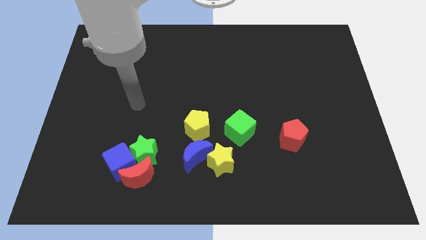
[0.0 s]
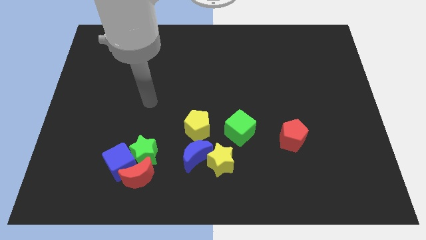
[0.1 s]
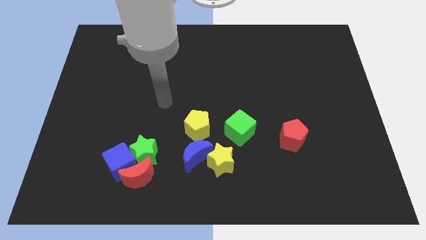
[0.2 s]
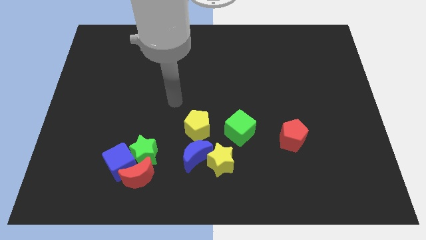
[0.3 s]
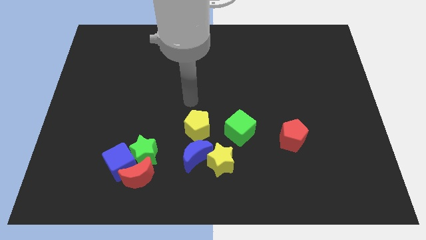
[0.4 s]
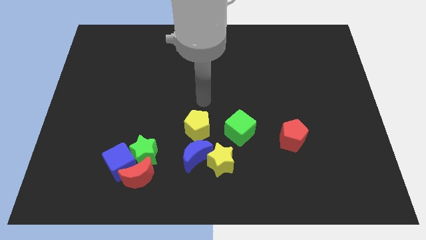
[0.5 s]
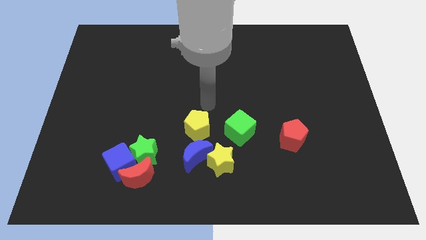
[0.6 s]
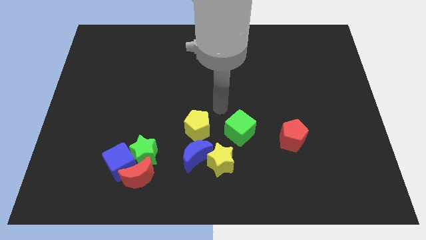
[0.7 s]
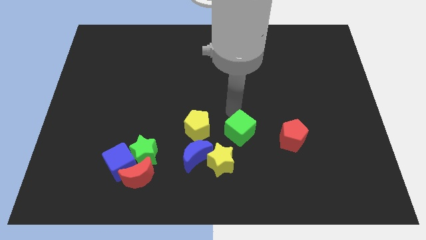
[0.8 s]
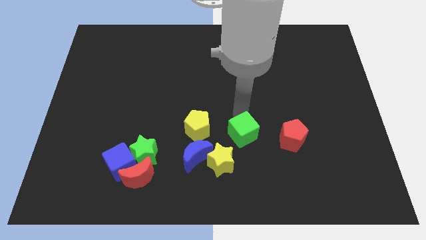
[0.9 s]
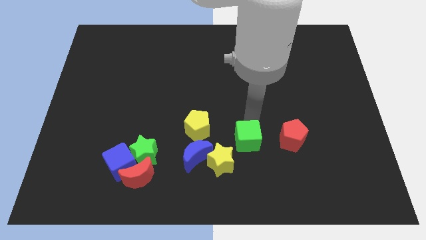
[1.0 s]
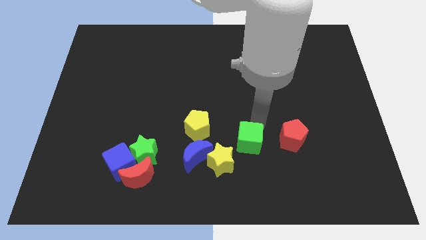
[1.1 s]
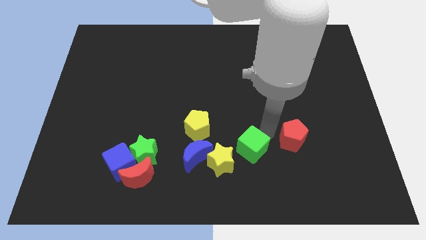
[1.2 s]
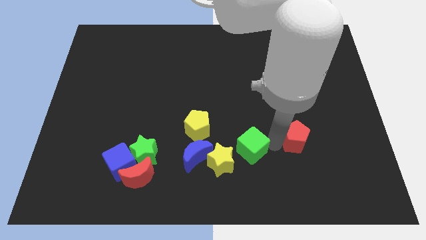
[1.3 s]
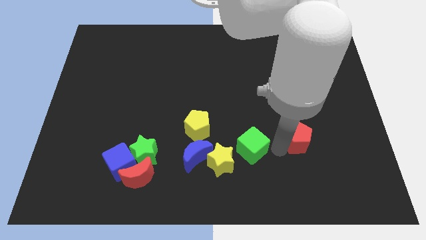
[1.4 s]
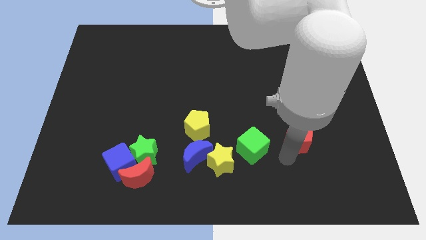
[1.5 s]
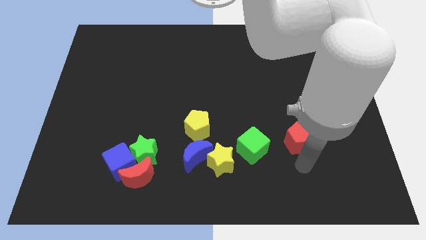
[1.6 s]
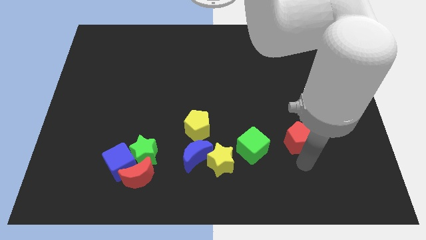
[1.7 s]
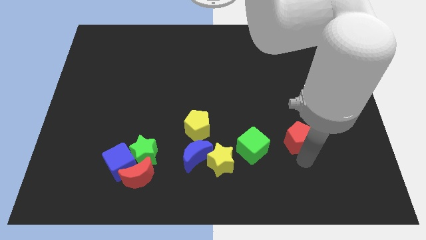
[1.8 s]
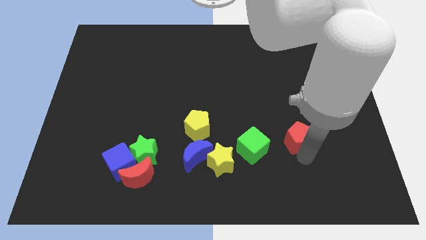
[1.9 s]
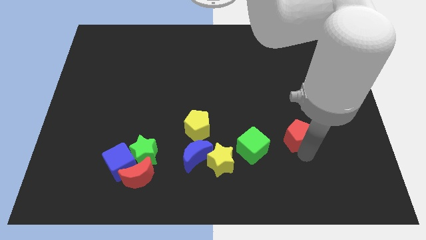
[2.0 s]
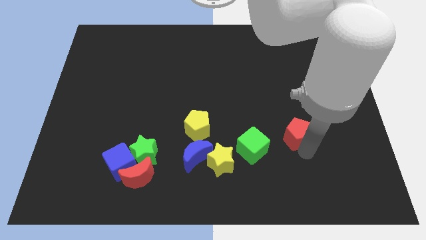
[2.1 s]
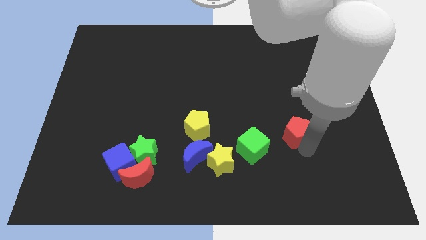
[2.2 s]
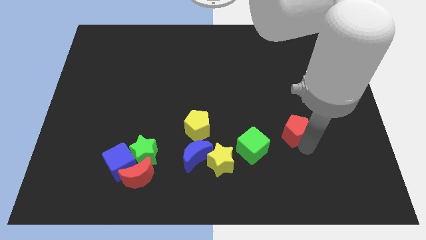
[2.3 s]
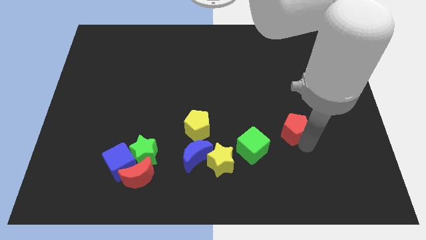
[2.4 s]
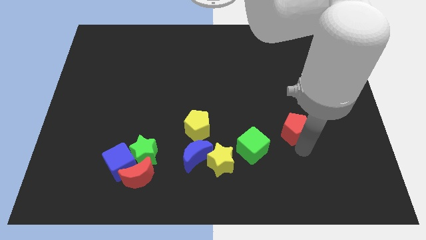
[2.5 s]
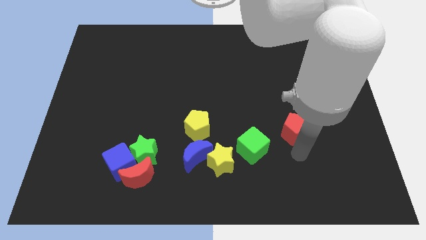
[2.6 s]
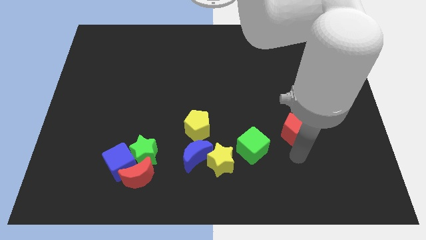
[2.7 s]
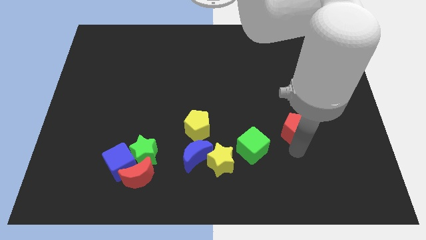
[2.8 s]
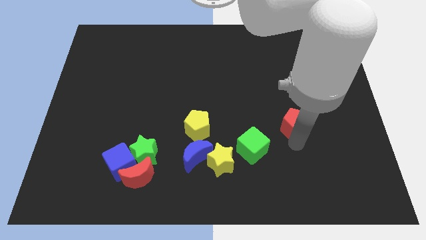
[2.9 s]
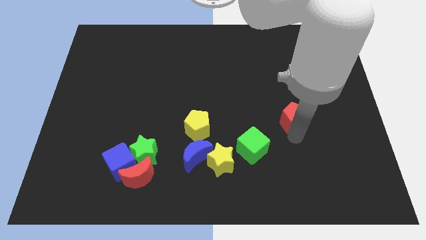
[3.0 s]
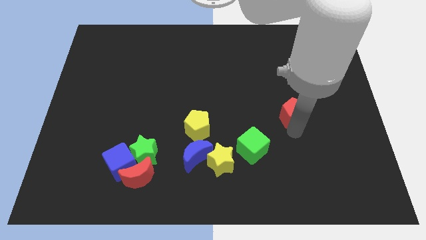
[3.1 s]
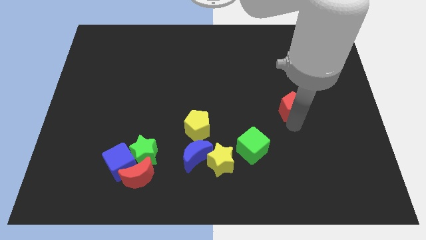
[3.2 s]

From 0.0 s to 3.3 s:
slightly move the red pentagon up

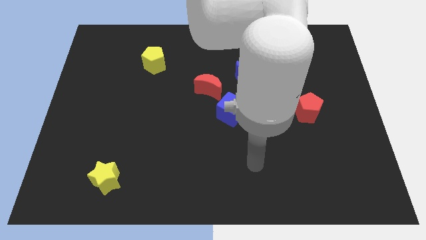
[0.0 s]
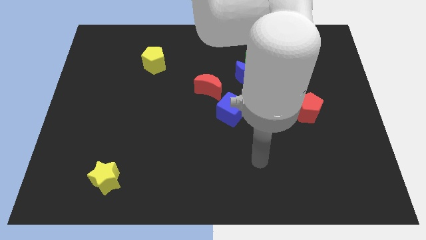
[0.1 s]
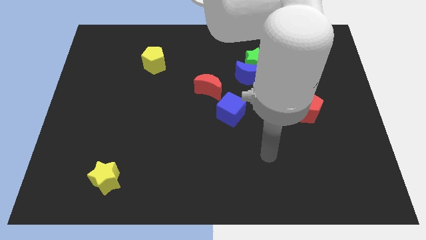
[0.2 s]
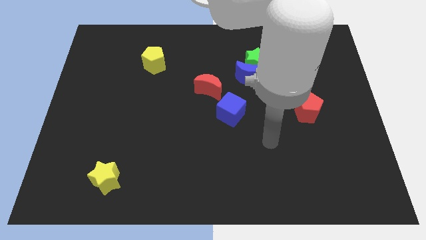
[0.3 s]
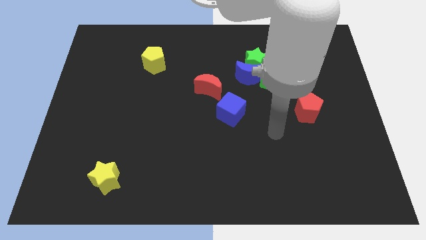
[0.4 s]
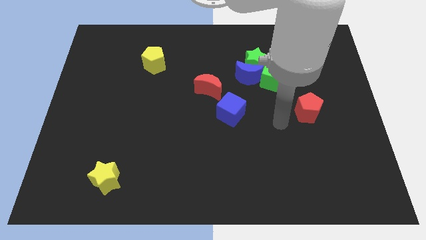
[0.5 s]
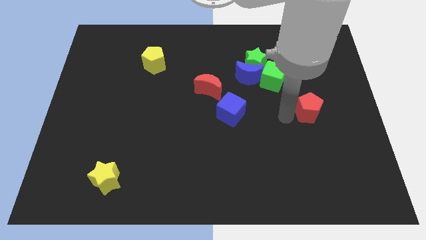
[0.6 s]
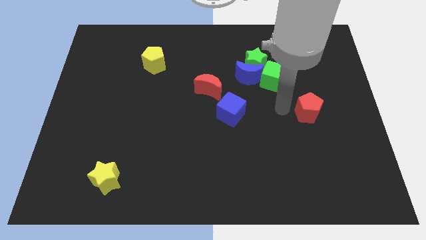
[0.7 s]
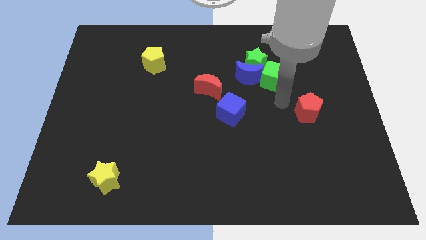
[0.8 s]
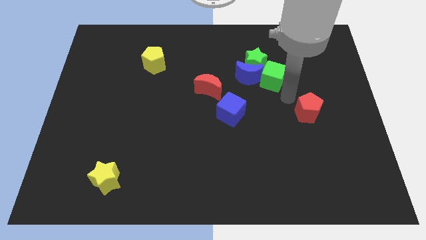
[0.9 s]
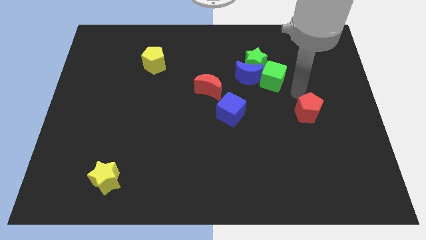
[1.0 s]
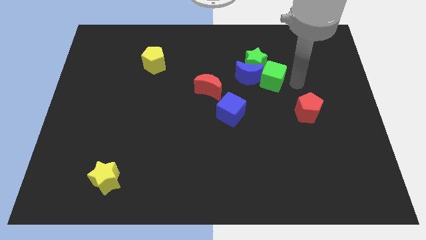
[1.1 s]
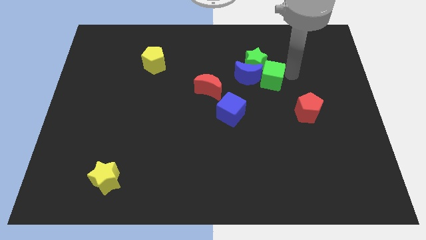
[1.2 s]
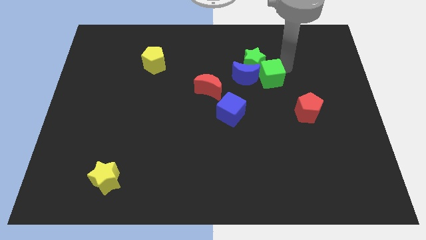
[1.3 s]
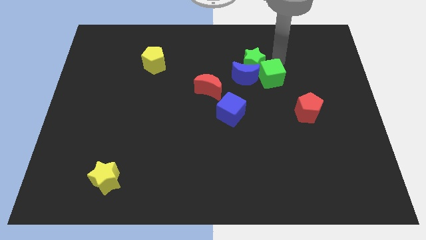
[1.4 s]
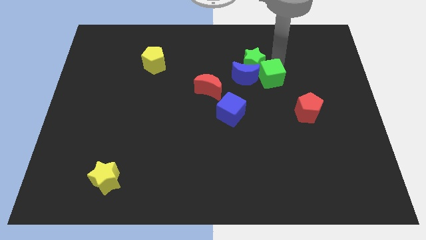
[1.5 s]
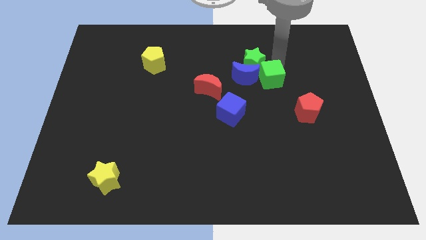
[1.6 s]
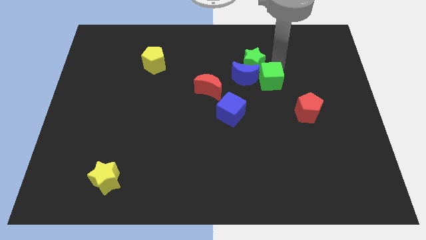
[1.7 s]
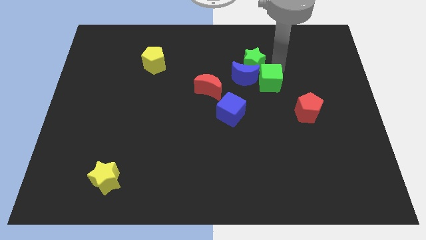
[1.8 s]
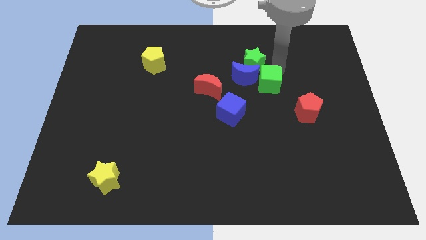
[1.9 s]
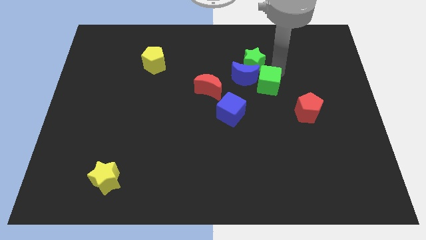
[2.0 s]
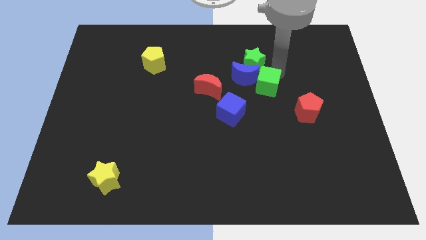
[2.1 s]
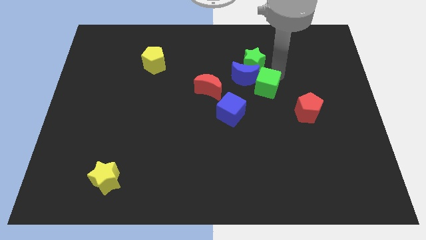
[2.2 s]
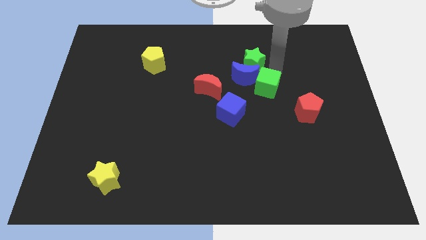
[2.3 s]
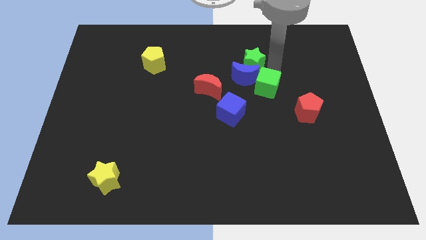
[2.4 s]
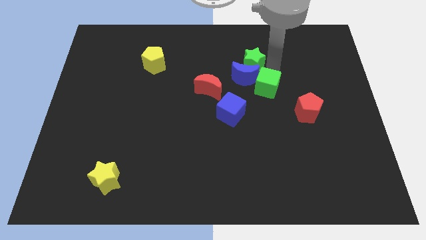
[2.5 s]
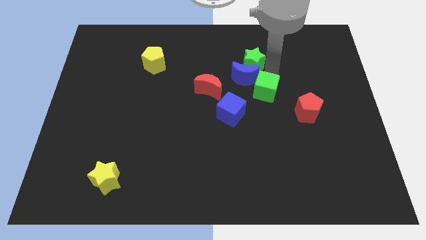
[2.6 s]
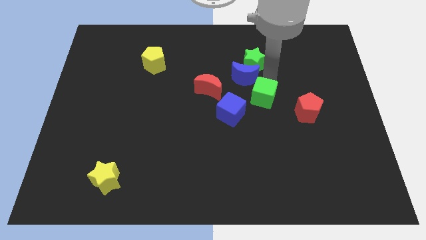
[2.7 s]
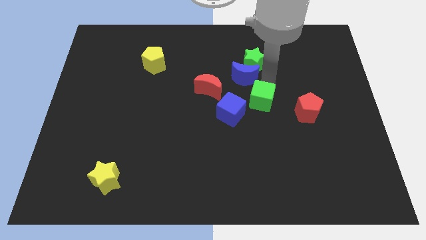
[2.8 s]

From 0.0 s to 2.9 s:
slightly push the green cube down and to the left

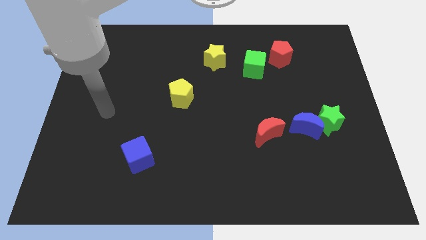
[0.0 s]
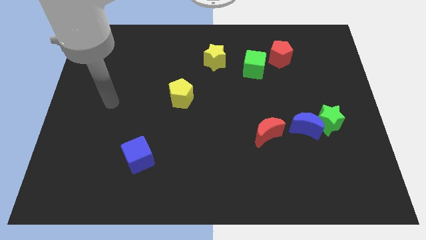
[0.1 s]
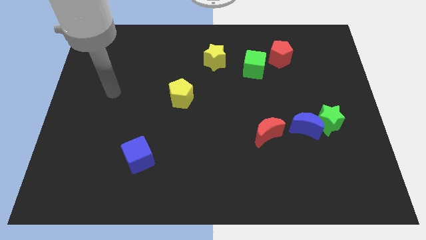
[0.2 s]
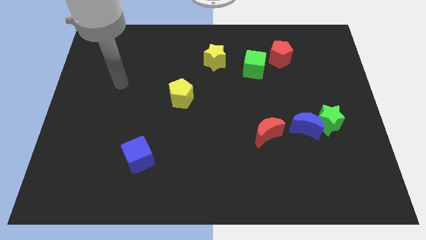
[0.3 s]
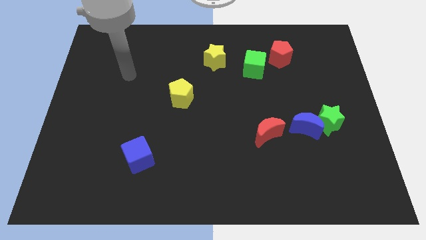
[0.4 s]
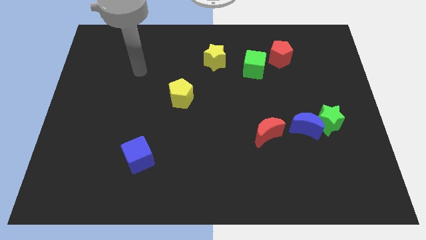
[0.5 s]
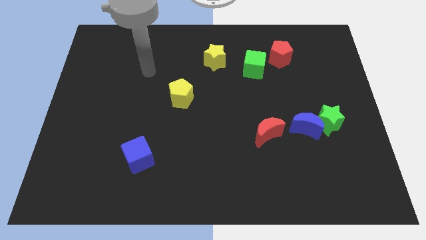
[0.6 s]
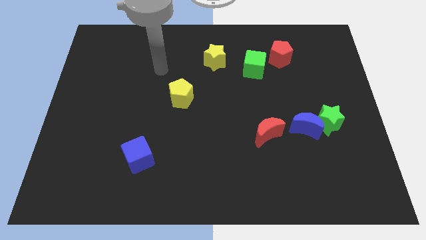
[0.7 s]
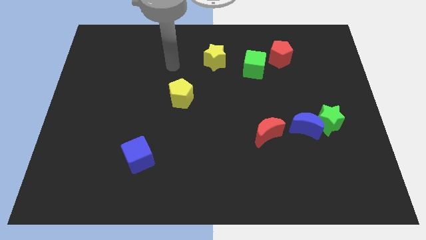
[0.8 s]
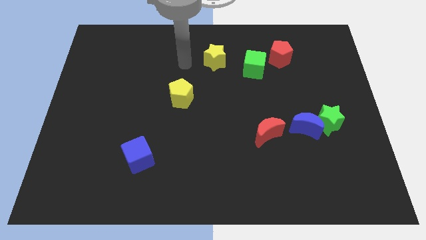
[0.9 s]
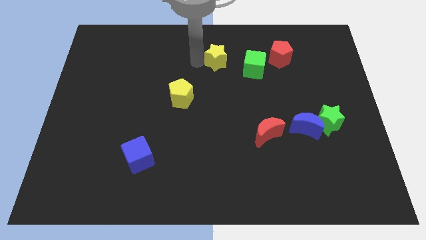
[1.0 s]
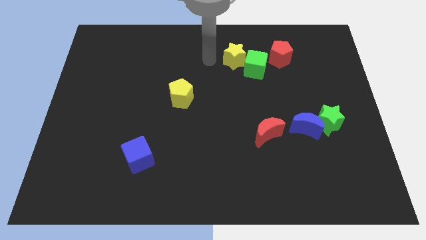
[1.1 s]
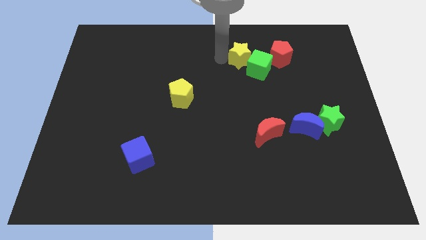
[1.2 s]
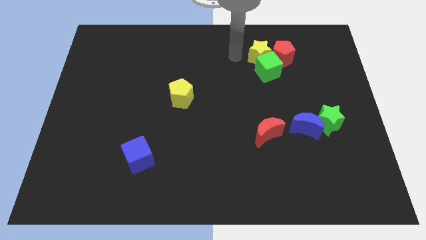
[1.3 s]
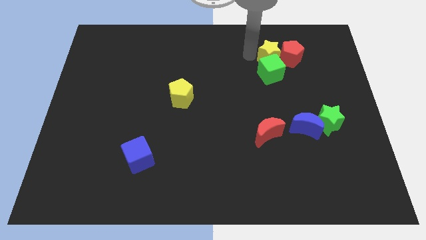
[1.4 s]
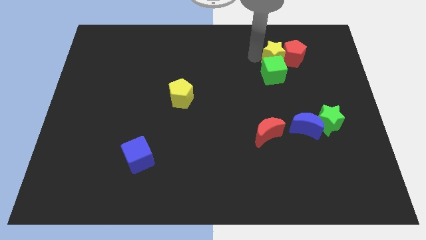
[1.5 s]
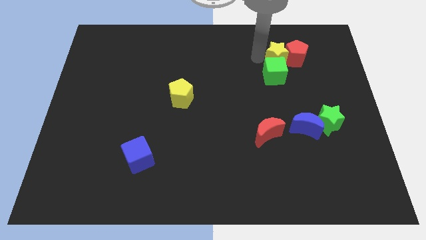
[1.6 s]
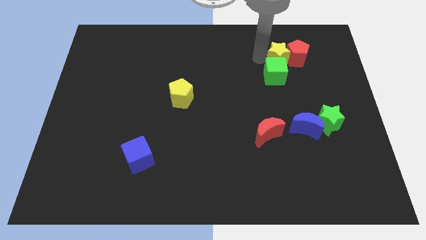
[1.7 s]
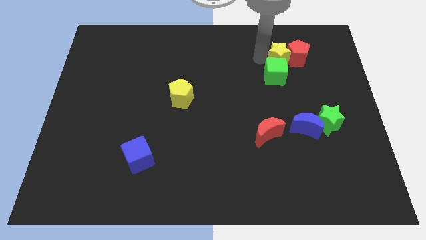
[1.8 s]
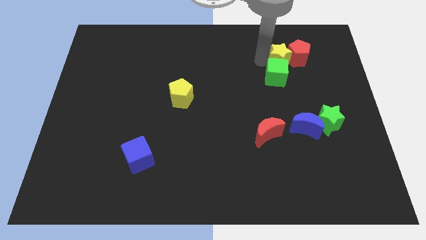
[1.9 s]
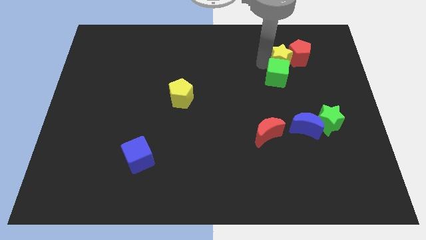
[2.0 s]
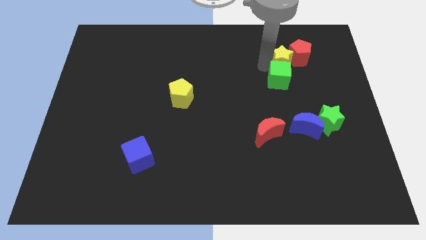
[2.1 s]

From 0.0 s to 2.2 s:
push the green cube downwards and then right a little bit
